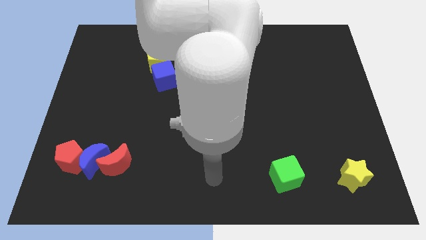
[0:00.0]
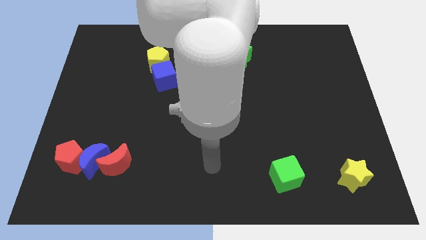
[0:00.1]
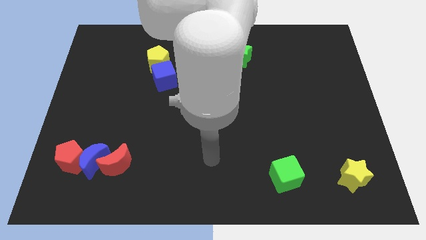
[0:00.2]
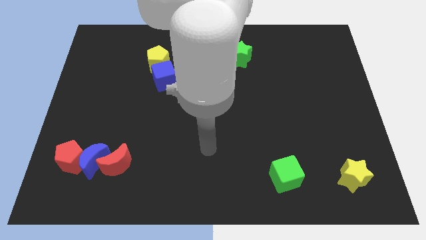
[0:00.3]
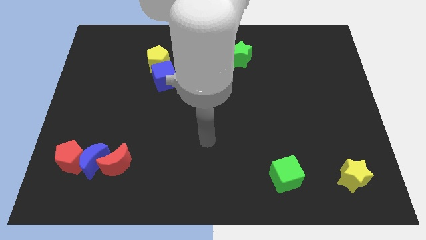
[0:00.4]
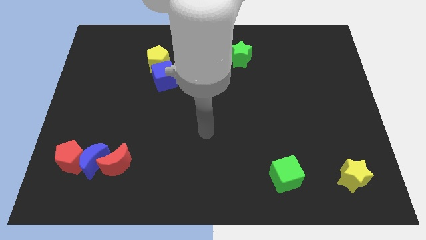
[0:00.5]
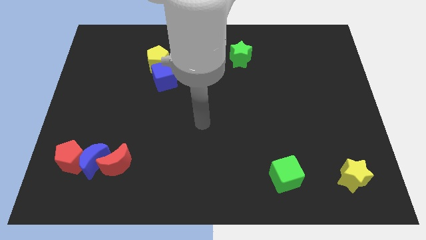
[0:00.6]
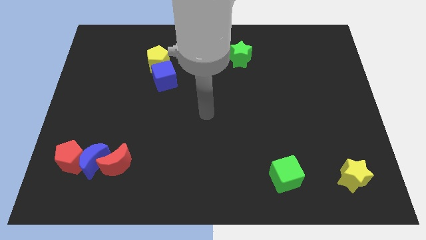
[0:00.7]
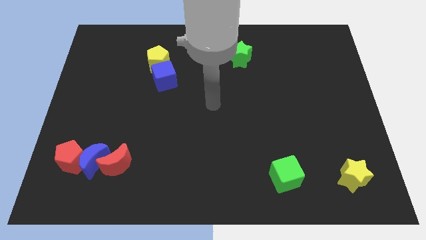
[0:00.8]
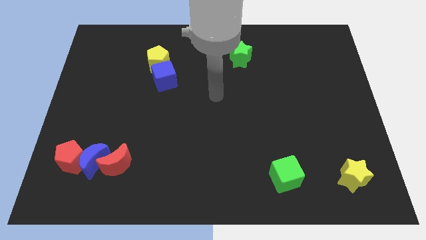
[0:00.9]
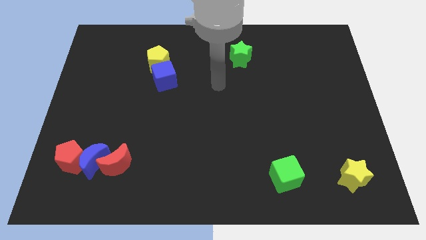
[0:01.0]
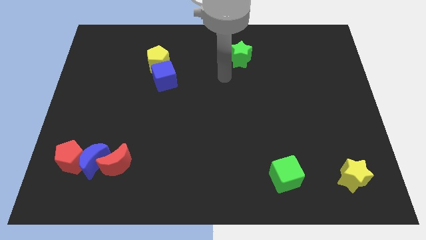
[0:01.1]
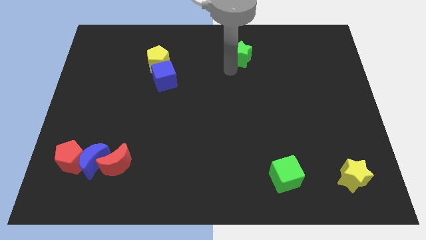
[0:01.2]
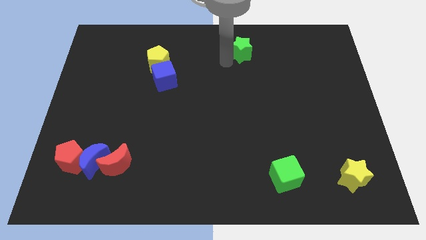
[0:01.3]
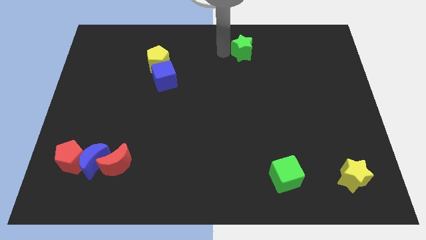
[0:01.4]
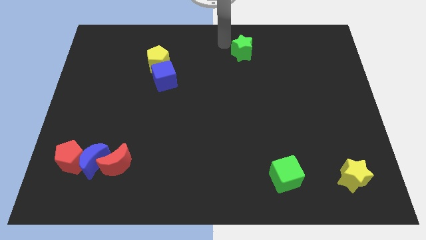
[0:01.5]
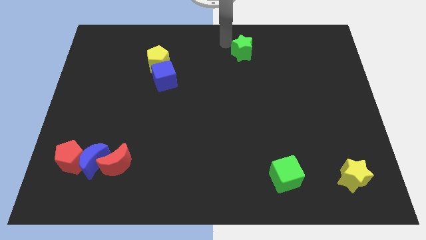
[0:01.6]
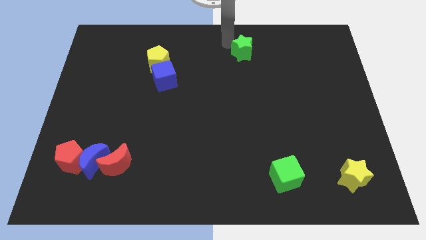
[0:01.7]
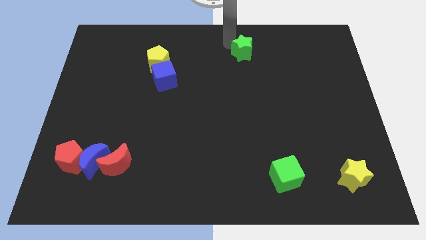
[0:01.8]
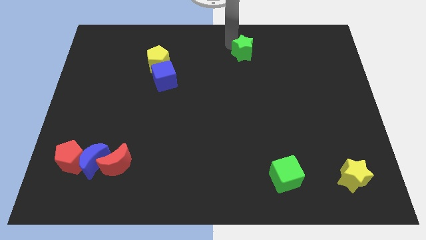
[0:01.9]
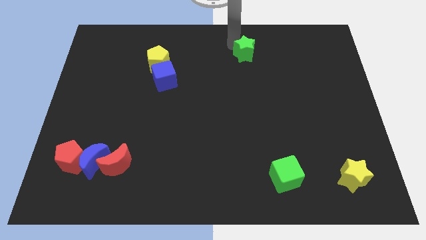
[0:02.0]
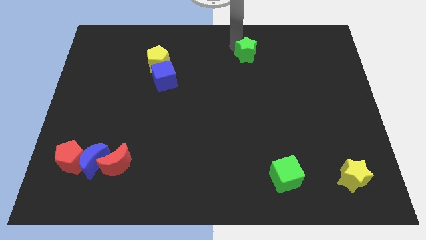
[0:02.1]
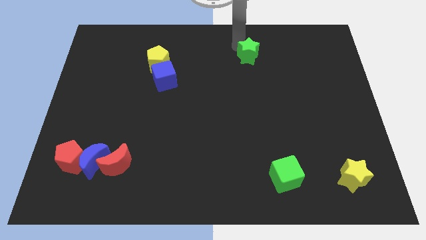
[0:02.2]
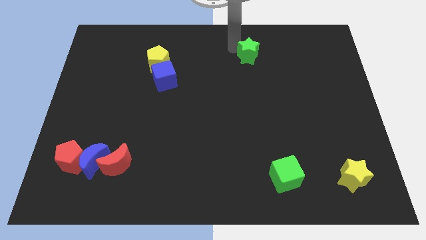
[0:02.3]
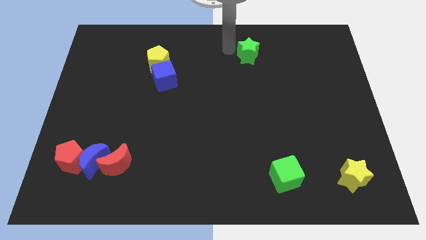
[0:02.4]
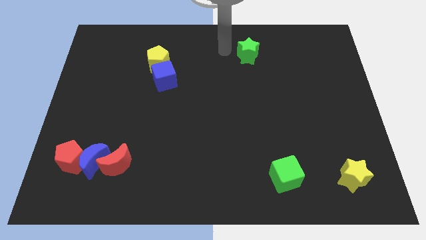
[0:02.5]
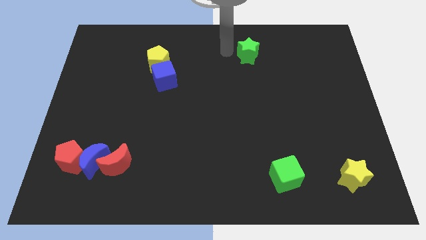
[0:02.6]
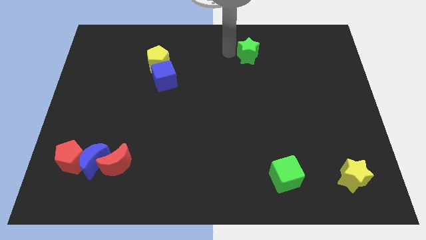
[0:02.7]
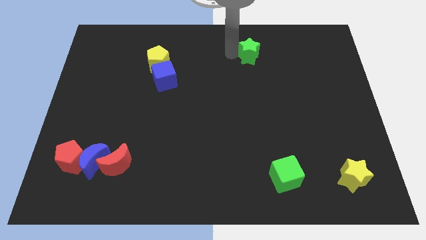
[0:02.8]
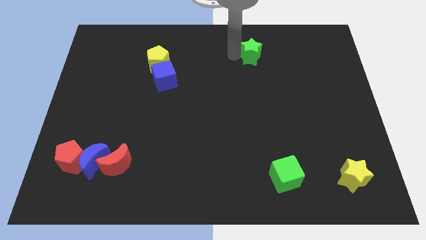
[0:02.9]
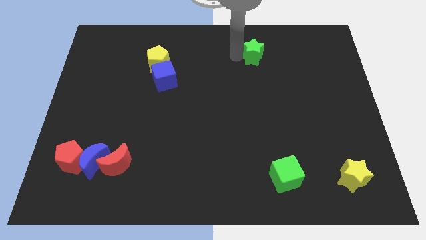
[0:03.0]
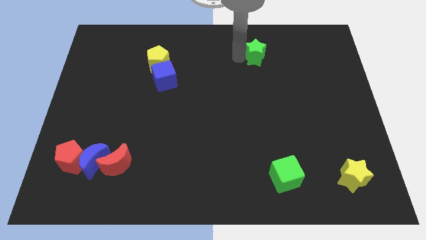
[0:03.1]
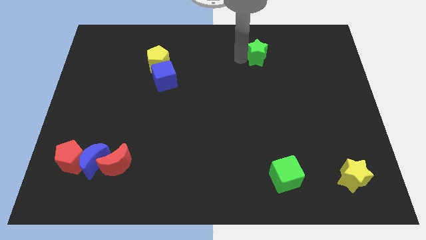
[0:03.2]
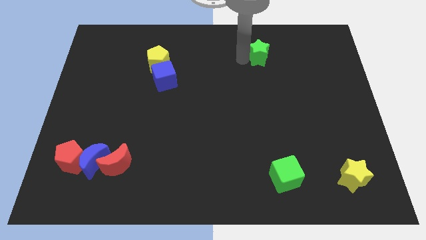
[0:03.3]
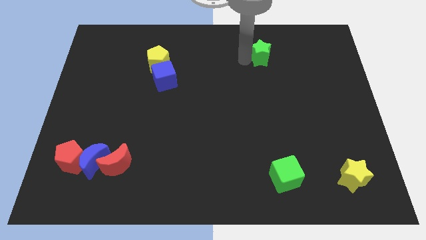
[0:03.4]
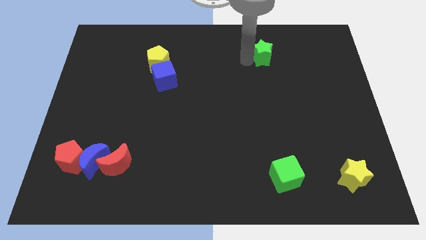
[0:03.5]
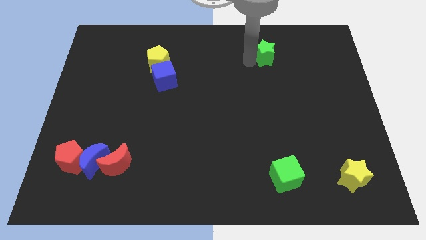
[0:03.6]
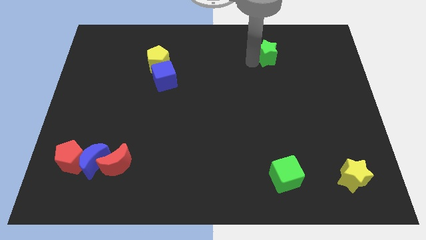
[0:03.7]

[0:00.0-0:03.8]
push the green star slightly to the right

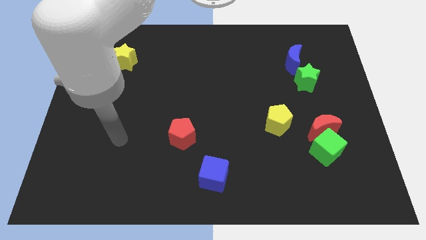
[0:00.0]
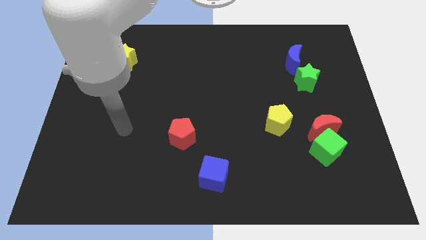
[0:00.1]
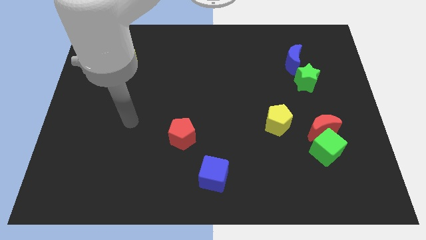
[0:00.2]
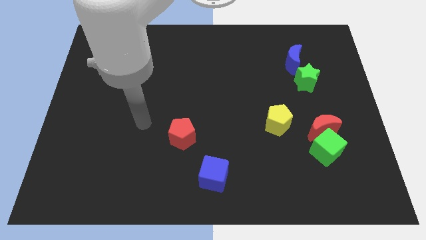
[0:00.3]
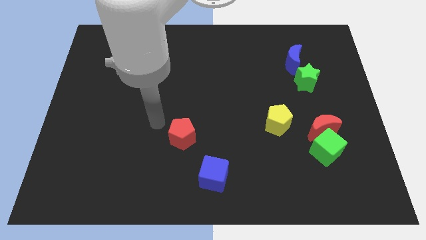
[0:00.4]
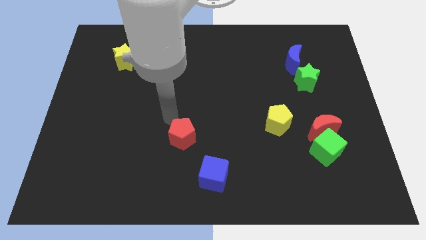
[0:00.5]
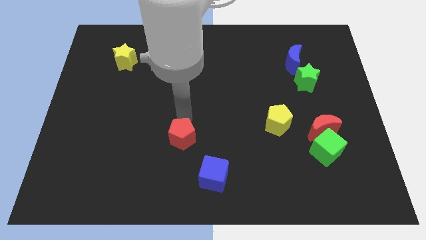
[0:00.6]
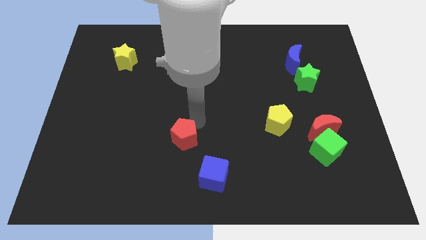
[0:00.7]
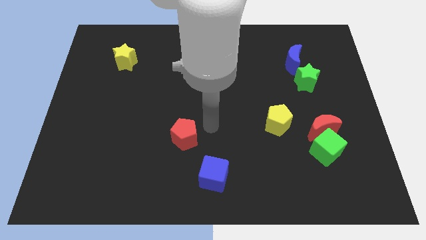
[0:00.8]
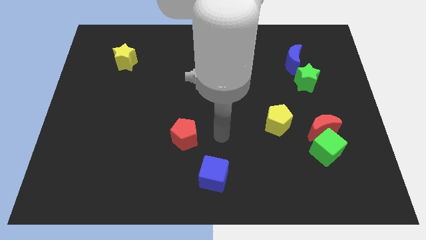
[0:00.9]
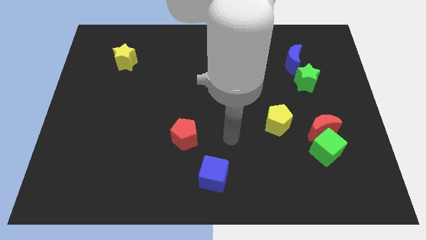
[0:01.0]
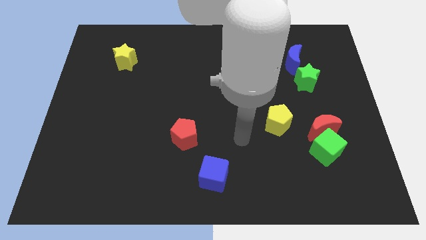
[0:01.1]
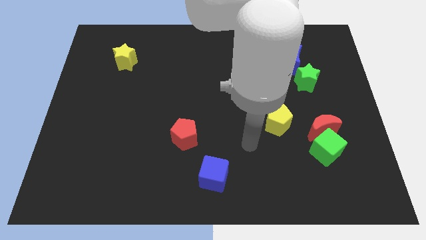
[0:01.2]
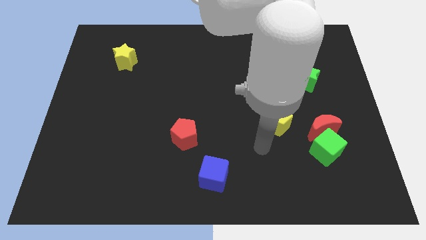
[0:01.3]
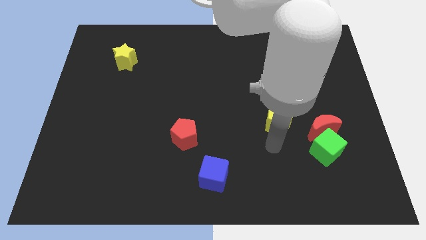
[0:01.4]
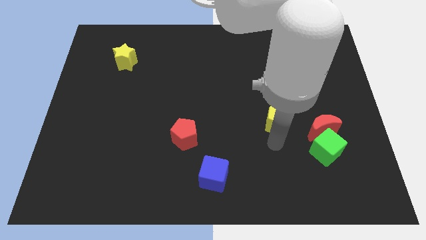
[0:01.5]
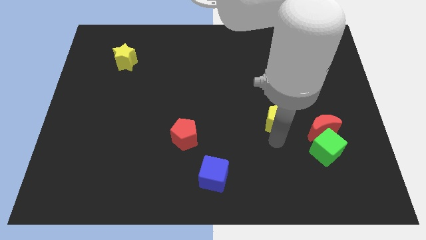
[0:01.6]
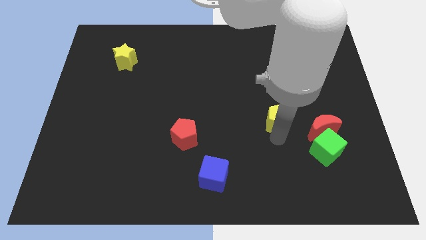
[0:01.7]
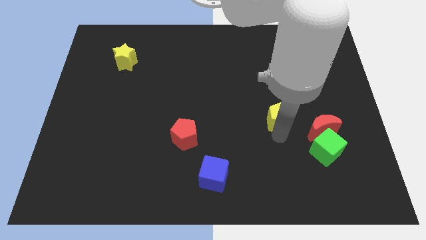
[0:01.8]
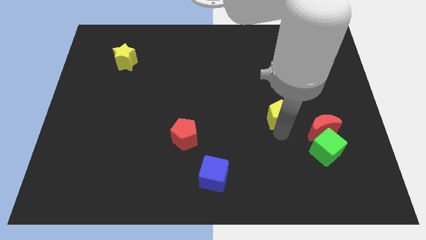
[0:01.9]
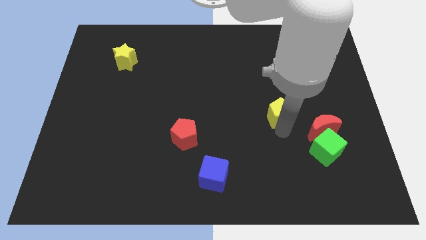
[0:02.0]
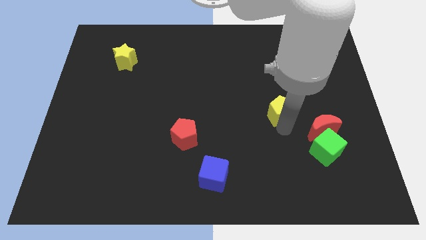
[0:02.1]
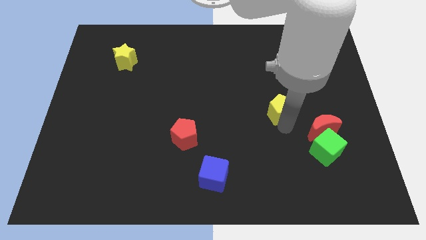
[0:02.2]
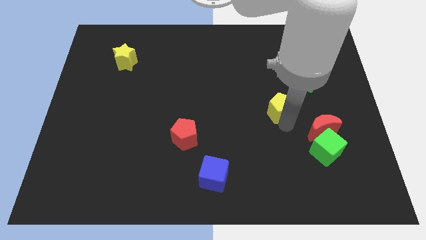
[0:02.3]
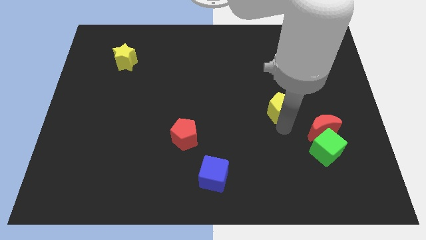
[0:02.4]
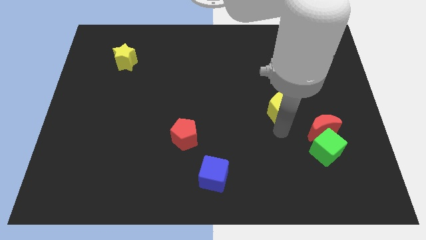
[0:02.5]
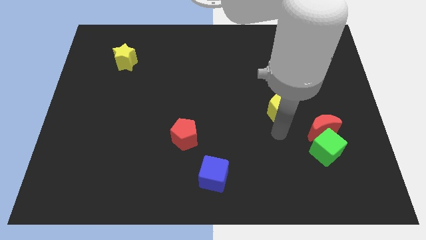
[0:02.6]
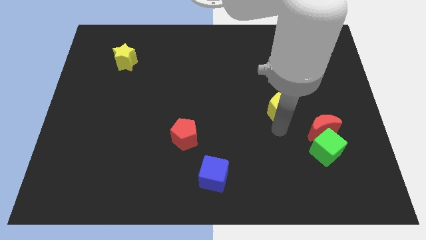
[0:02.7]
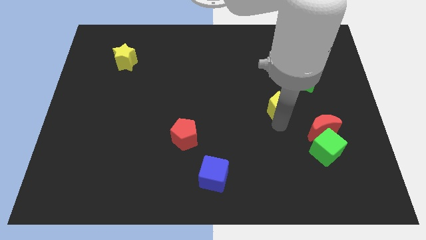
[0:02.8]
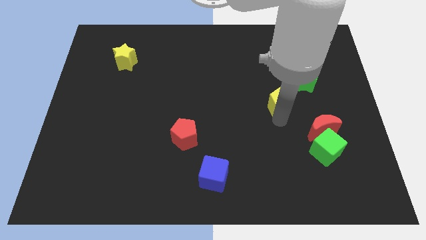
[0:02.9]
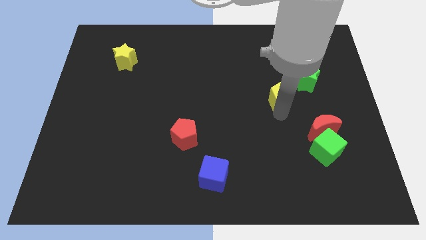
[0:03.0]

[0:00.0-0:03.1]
slightly push the yellow pentagon up

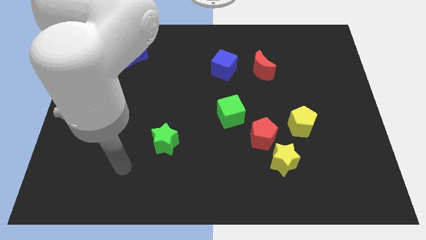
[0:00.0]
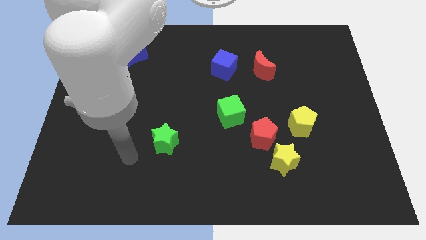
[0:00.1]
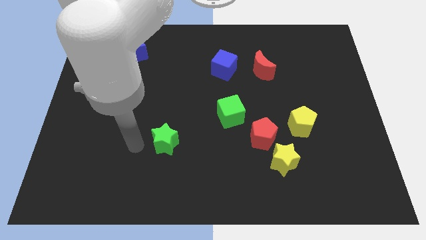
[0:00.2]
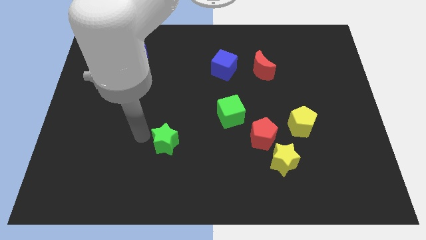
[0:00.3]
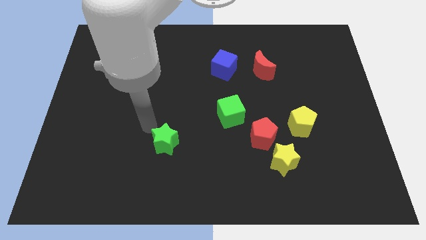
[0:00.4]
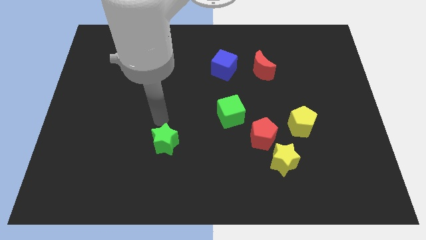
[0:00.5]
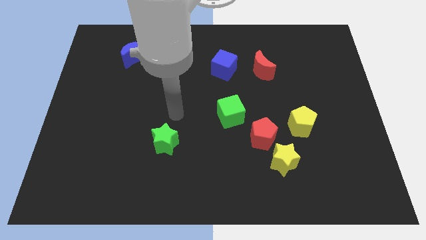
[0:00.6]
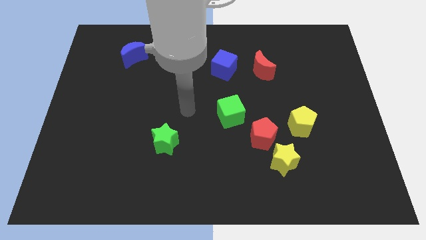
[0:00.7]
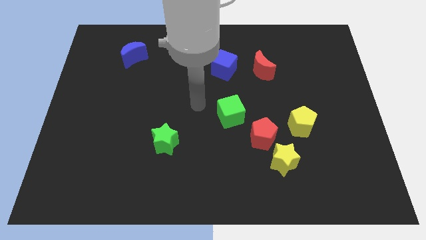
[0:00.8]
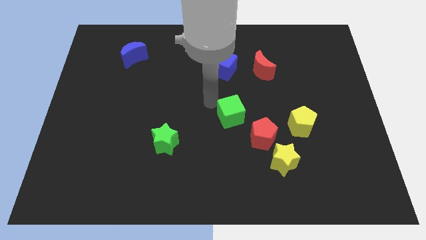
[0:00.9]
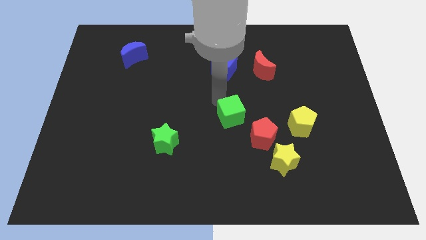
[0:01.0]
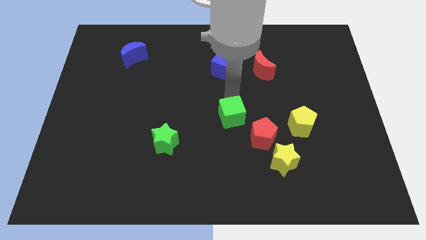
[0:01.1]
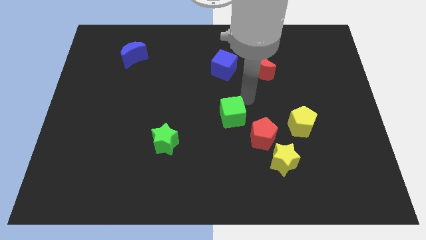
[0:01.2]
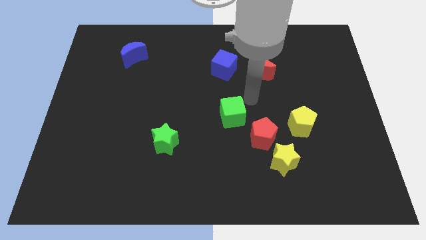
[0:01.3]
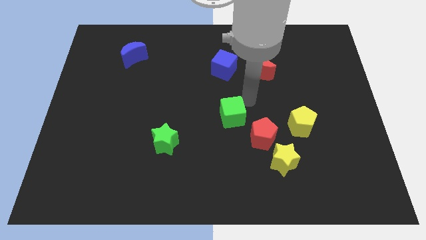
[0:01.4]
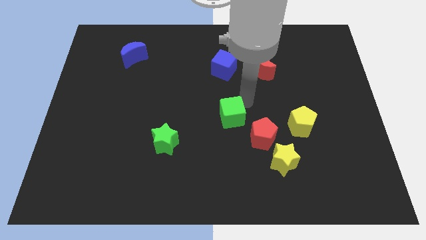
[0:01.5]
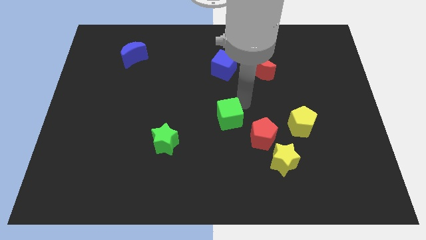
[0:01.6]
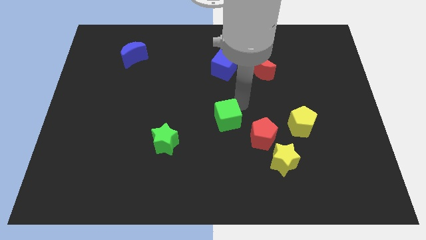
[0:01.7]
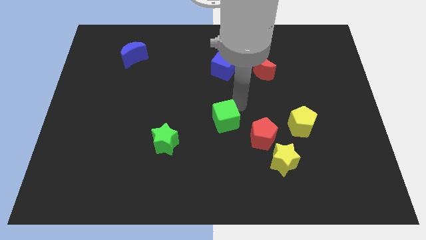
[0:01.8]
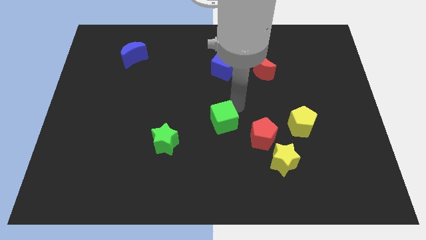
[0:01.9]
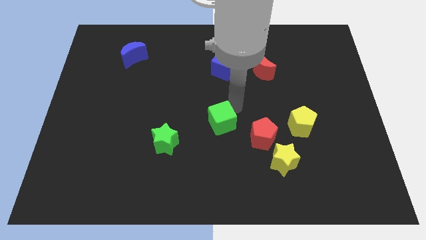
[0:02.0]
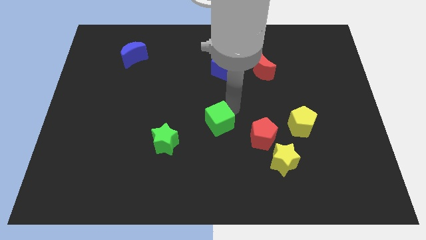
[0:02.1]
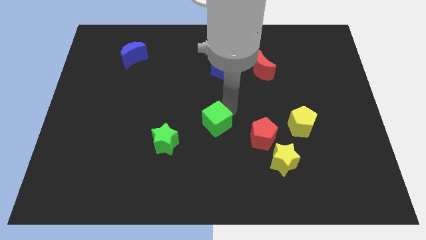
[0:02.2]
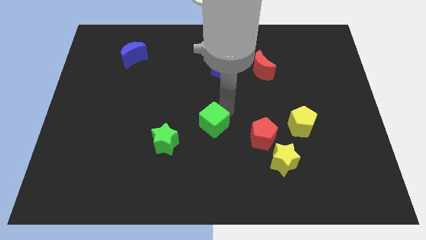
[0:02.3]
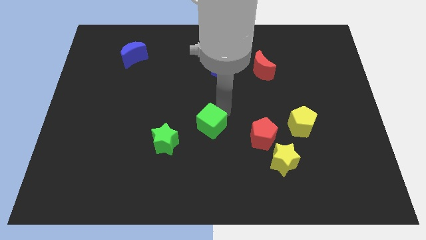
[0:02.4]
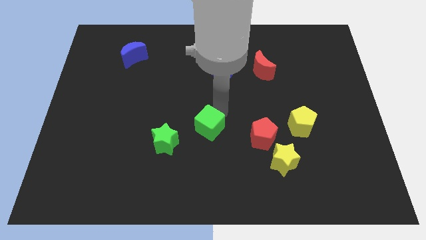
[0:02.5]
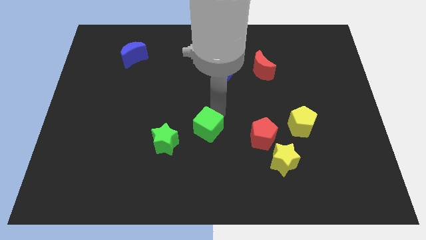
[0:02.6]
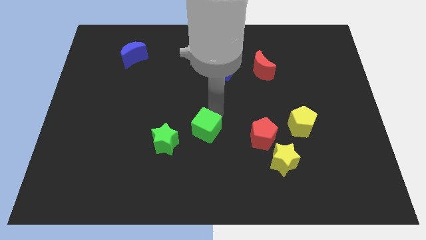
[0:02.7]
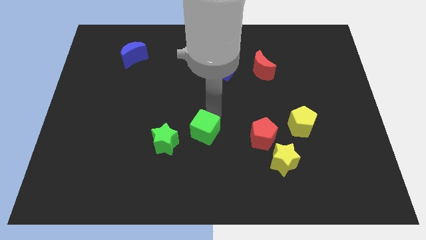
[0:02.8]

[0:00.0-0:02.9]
slightly move the green cube down and to the left
